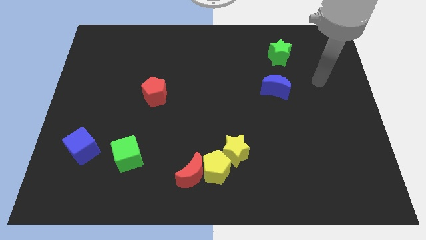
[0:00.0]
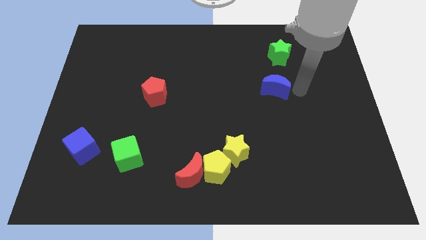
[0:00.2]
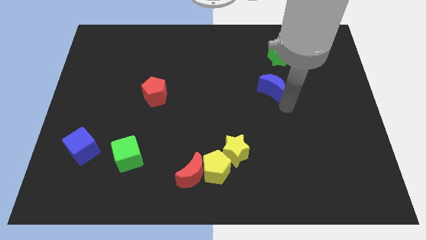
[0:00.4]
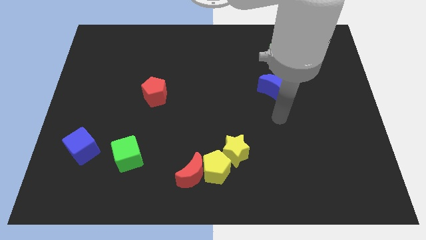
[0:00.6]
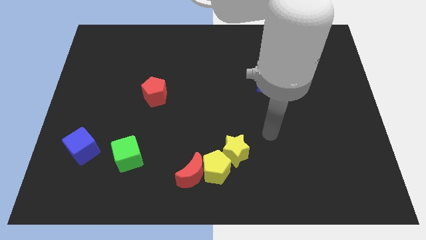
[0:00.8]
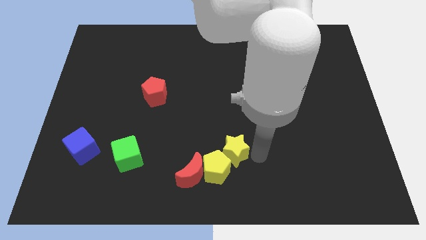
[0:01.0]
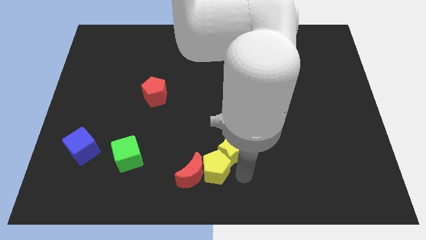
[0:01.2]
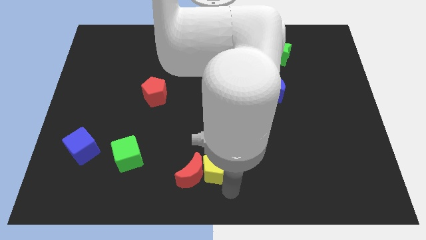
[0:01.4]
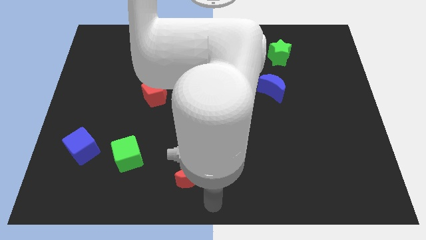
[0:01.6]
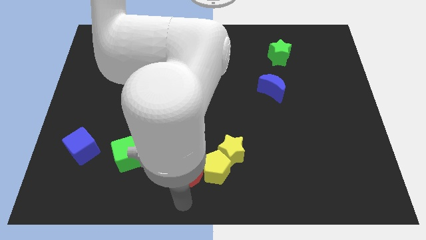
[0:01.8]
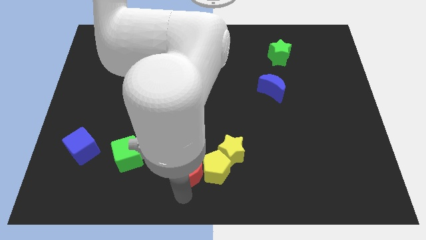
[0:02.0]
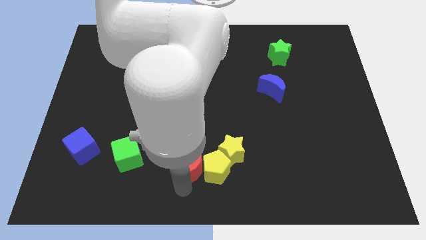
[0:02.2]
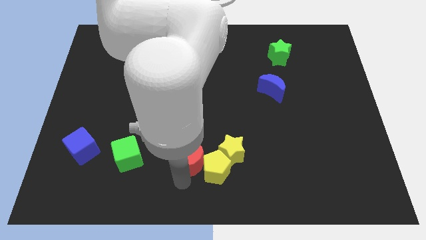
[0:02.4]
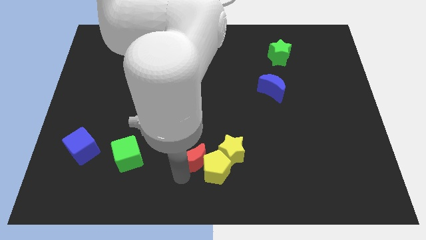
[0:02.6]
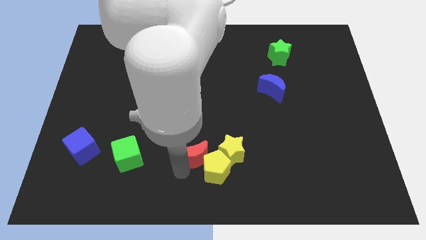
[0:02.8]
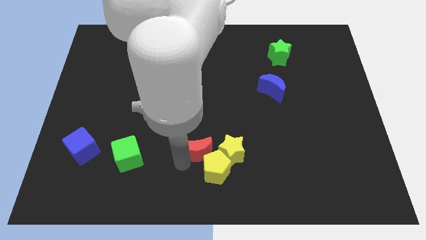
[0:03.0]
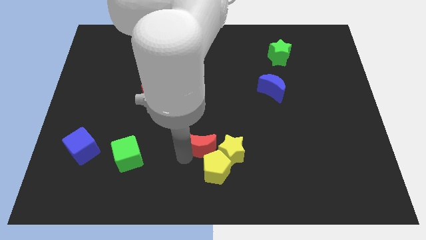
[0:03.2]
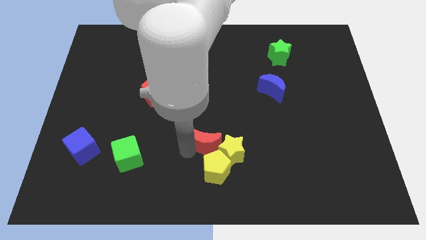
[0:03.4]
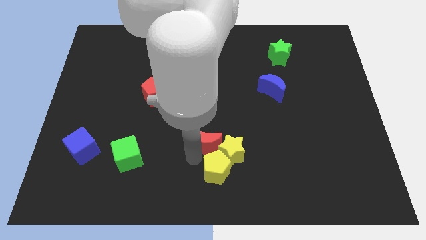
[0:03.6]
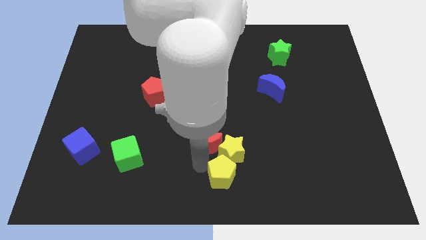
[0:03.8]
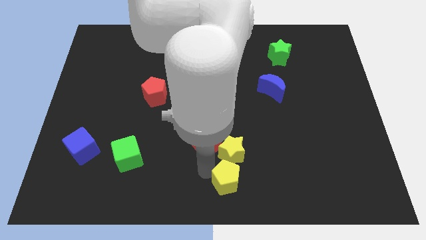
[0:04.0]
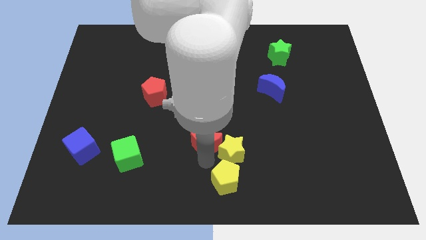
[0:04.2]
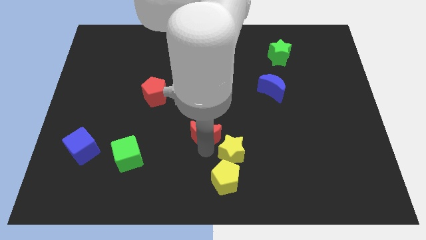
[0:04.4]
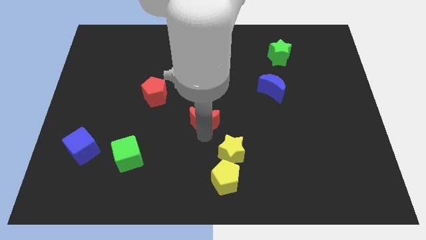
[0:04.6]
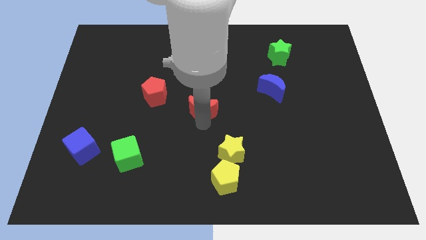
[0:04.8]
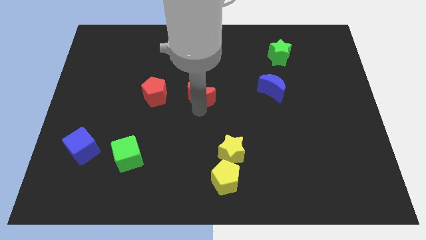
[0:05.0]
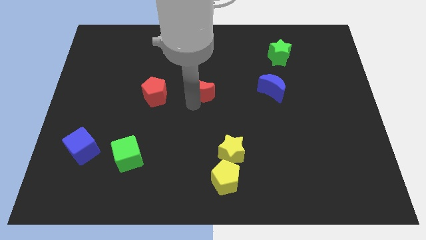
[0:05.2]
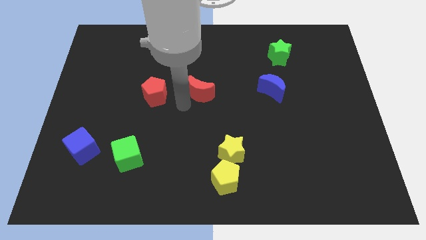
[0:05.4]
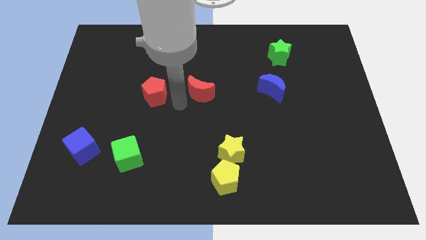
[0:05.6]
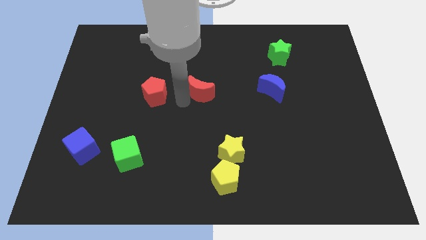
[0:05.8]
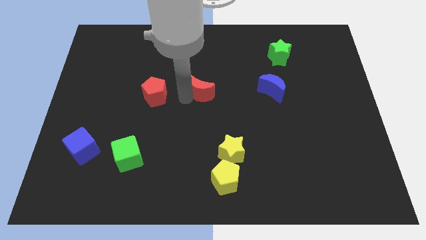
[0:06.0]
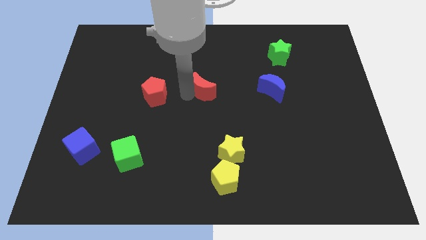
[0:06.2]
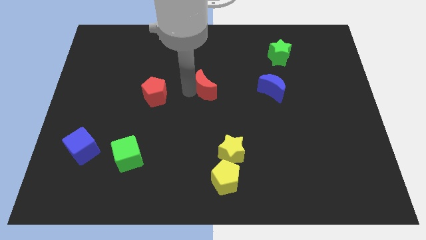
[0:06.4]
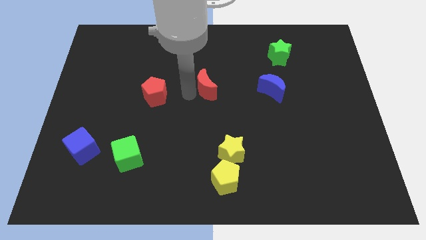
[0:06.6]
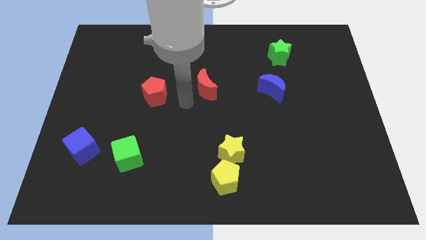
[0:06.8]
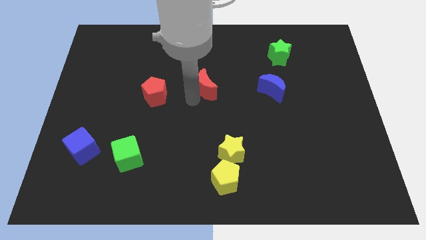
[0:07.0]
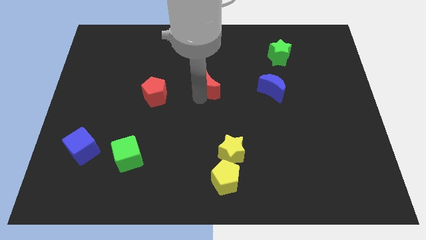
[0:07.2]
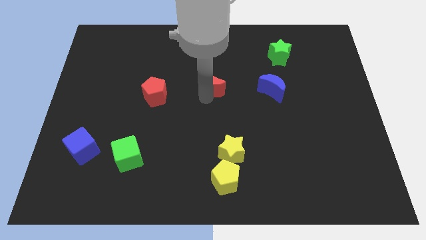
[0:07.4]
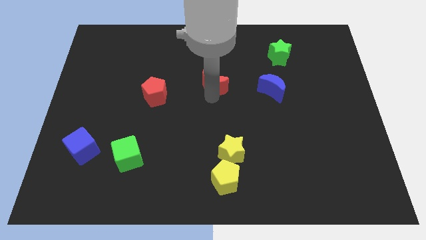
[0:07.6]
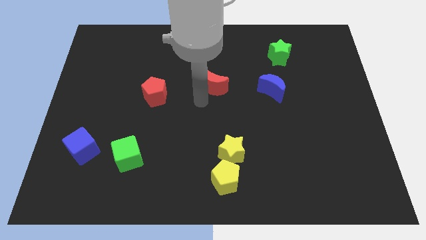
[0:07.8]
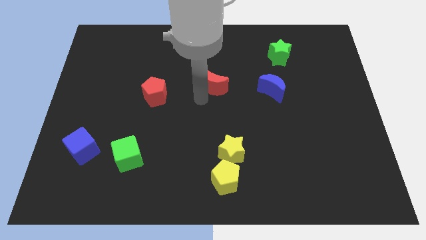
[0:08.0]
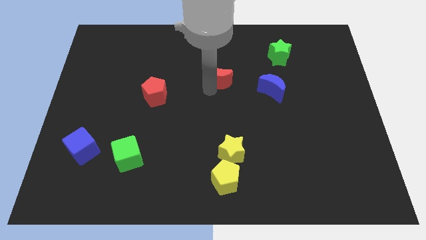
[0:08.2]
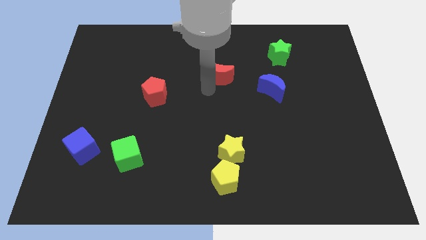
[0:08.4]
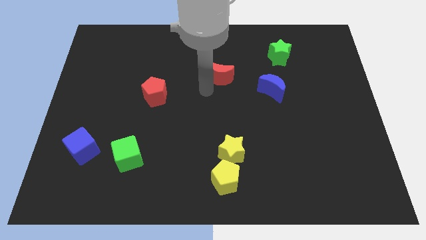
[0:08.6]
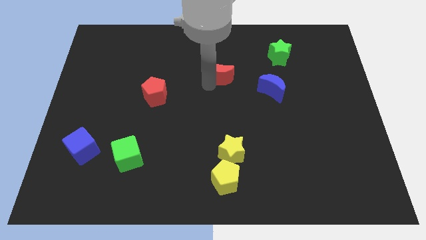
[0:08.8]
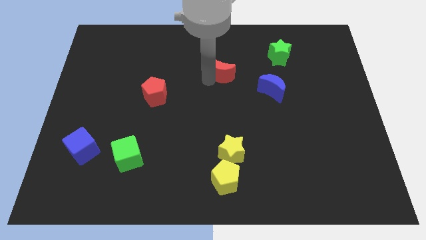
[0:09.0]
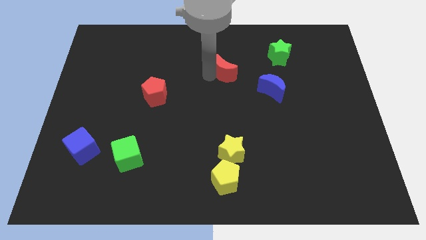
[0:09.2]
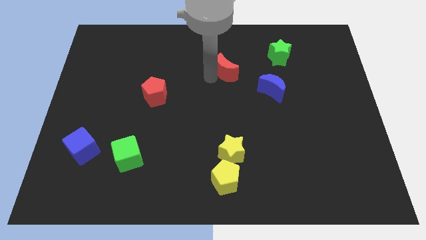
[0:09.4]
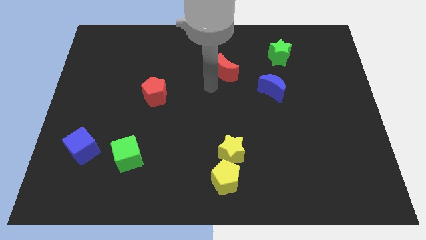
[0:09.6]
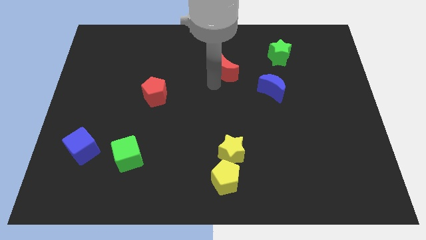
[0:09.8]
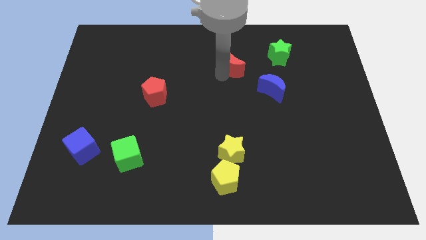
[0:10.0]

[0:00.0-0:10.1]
slide the red moon just left of the green star
